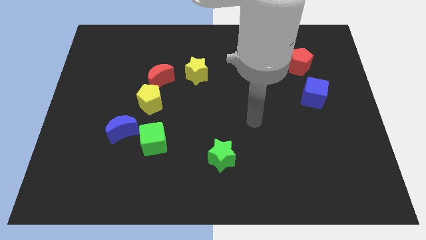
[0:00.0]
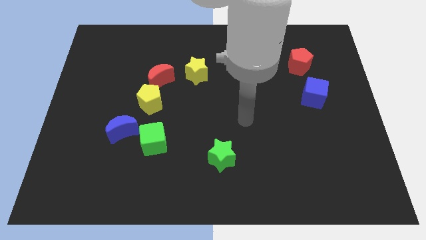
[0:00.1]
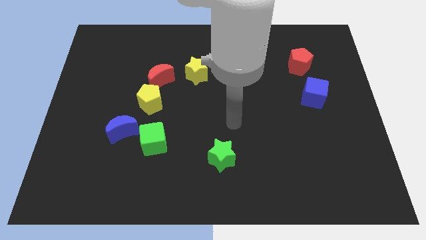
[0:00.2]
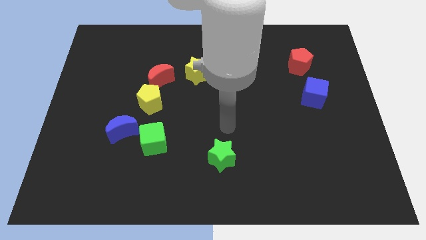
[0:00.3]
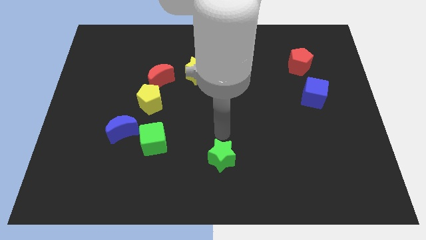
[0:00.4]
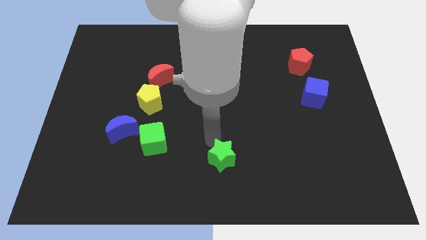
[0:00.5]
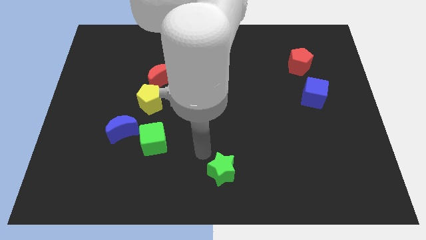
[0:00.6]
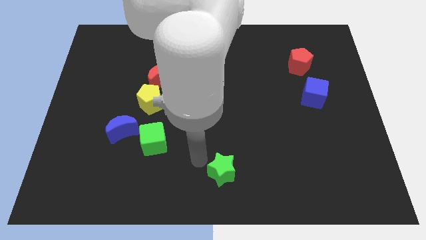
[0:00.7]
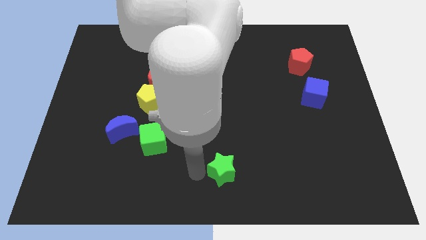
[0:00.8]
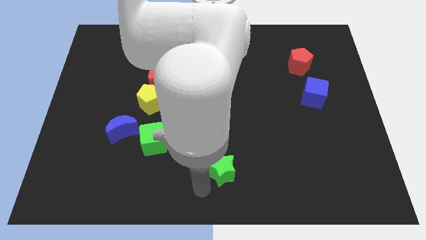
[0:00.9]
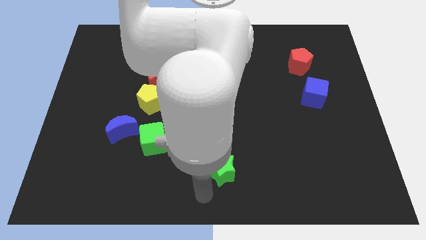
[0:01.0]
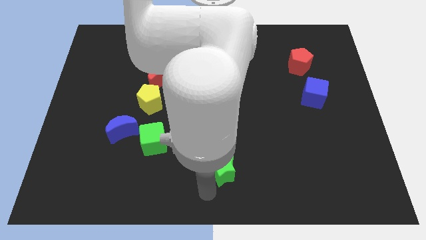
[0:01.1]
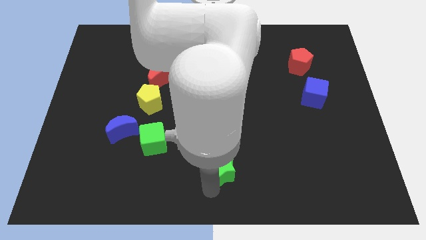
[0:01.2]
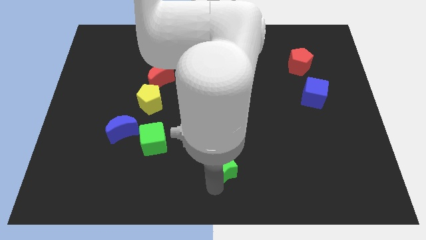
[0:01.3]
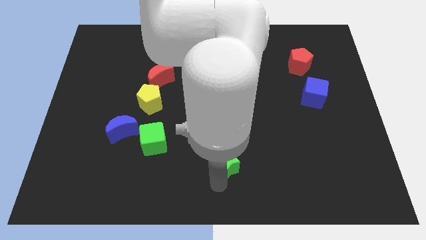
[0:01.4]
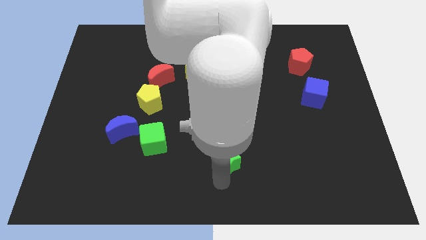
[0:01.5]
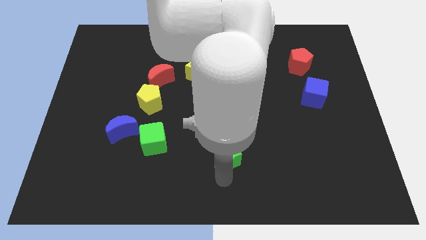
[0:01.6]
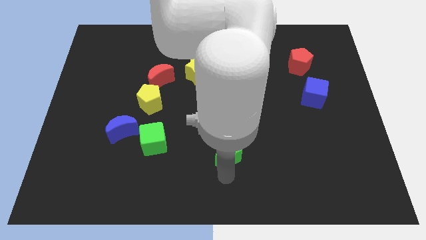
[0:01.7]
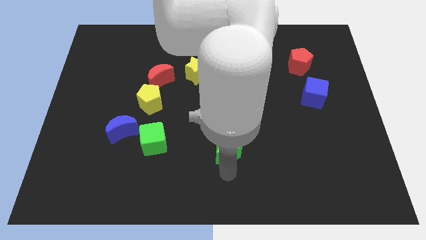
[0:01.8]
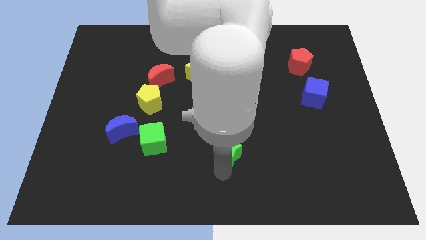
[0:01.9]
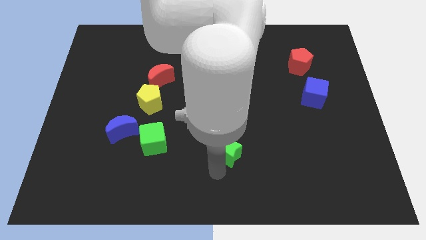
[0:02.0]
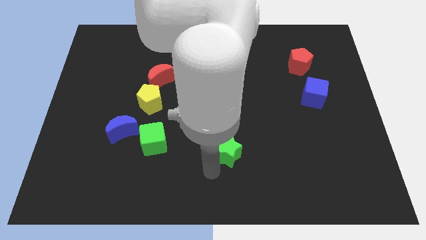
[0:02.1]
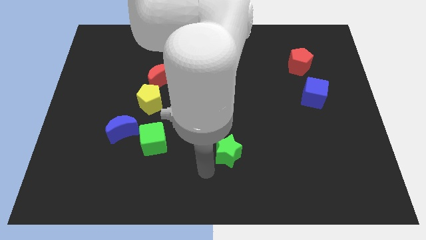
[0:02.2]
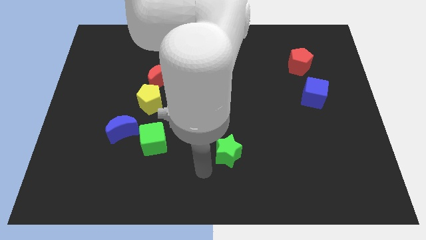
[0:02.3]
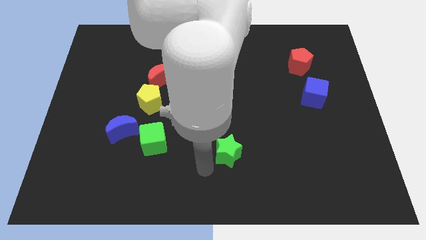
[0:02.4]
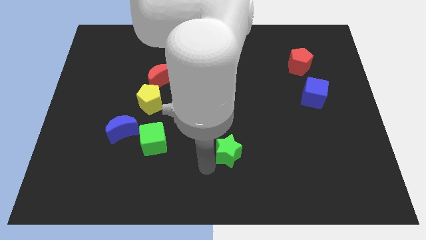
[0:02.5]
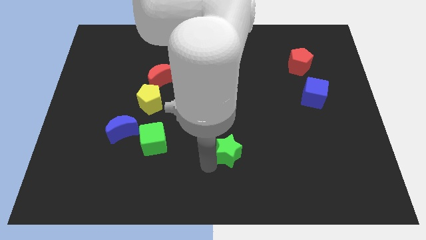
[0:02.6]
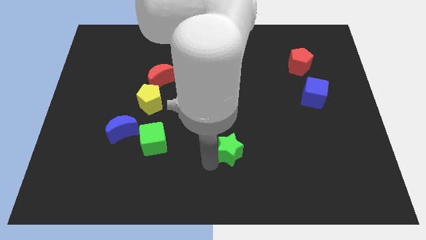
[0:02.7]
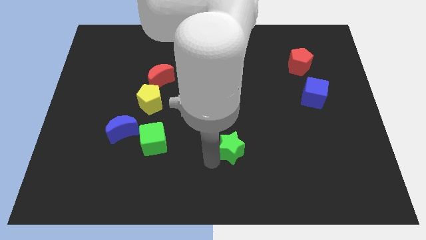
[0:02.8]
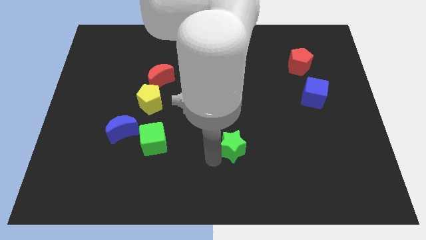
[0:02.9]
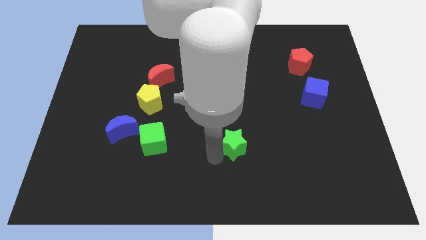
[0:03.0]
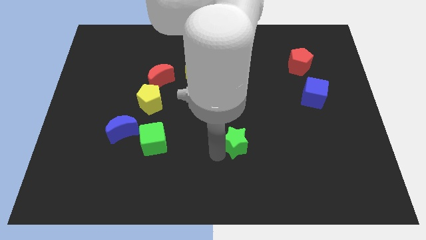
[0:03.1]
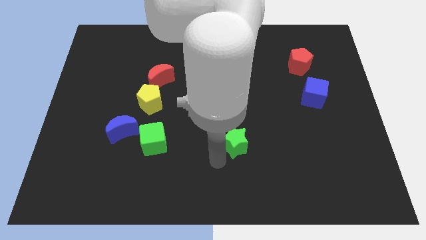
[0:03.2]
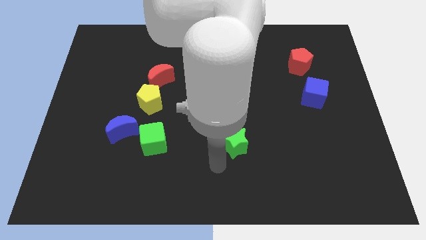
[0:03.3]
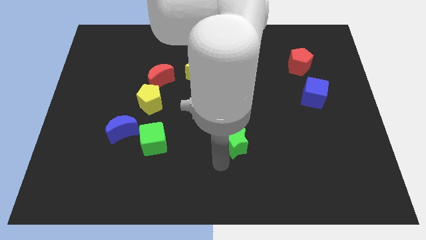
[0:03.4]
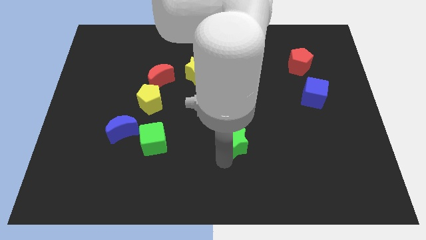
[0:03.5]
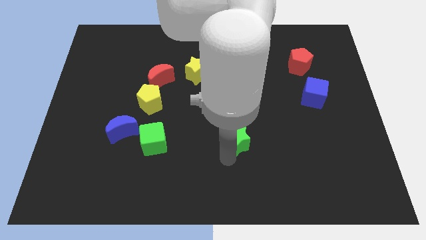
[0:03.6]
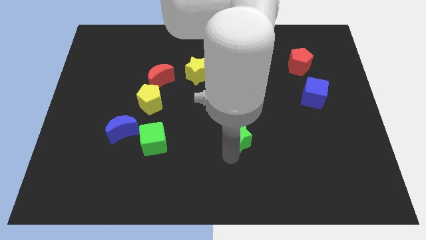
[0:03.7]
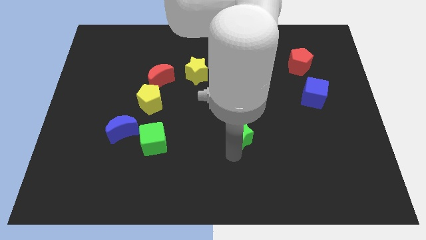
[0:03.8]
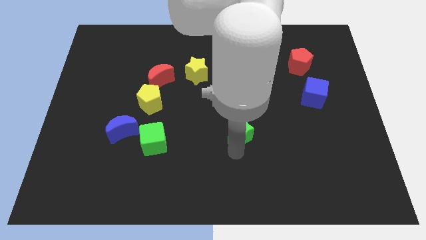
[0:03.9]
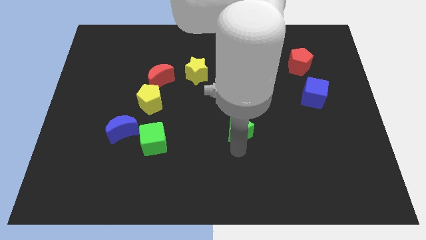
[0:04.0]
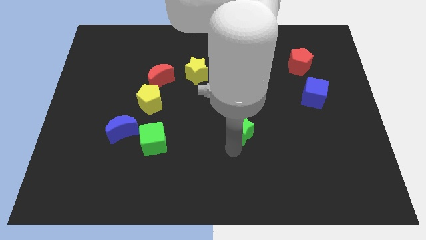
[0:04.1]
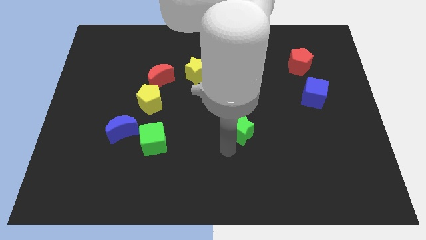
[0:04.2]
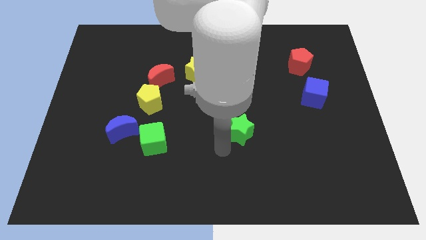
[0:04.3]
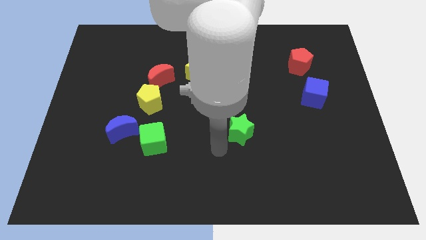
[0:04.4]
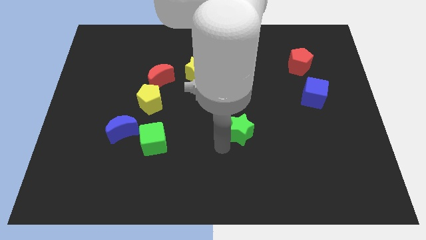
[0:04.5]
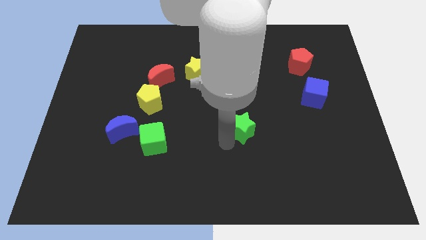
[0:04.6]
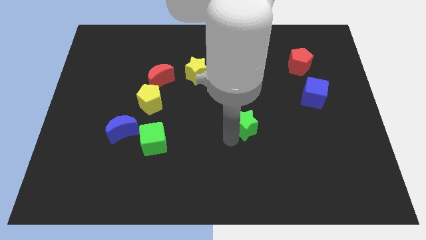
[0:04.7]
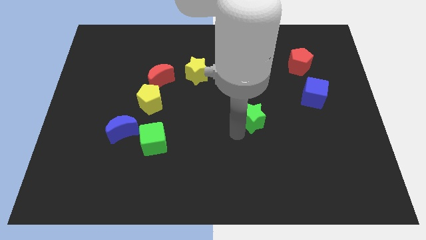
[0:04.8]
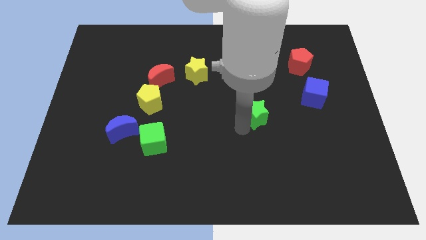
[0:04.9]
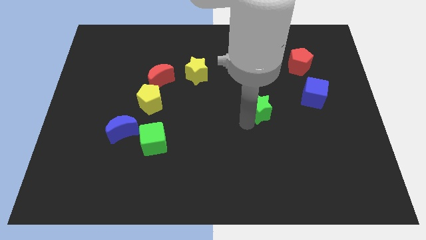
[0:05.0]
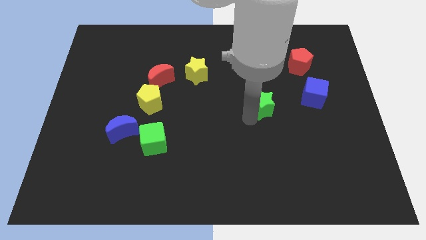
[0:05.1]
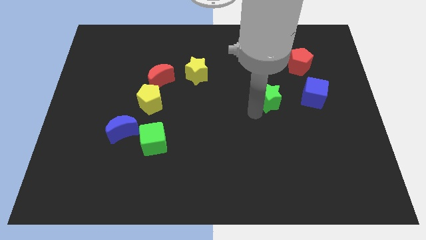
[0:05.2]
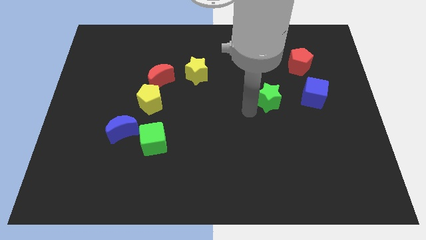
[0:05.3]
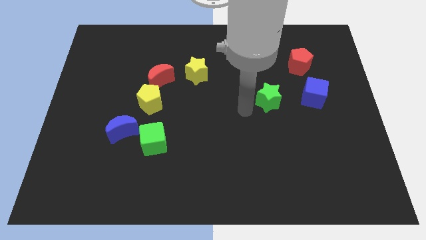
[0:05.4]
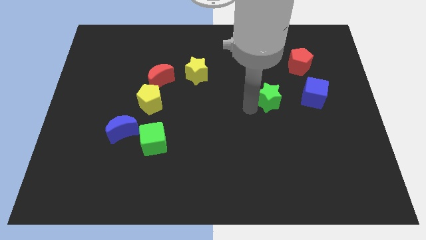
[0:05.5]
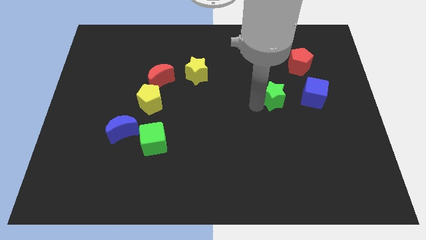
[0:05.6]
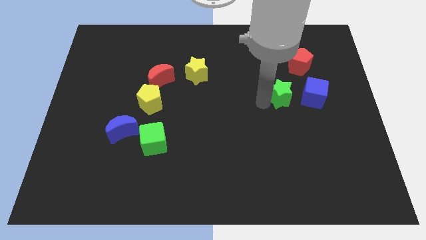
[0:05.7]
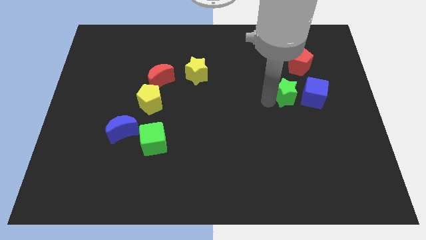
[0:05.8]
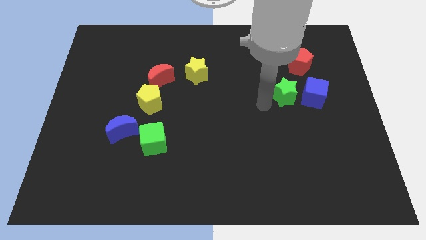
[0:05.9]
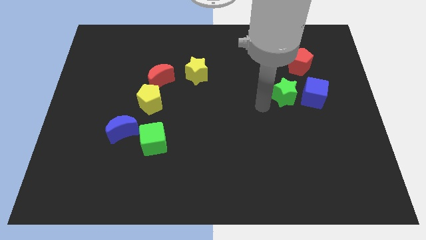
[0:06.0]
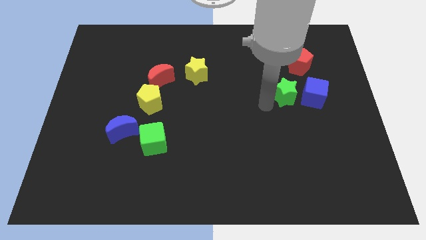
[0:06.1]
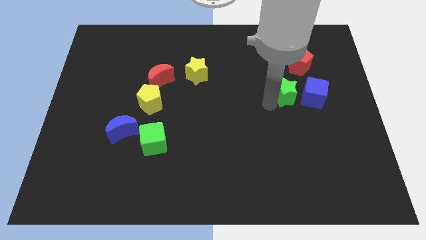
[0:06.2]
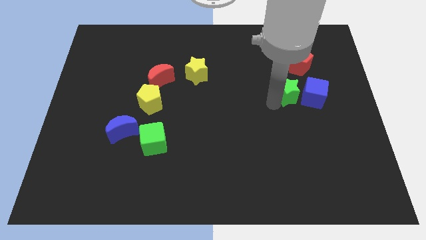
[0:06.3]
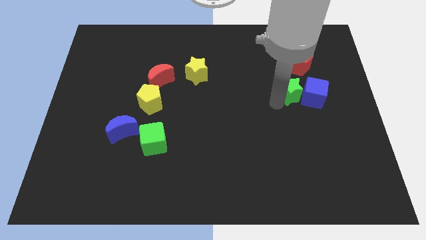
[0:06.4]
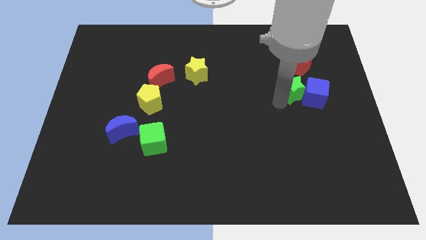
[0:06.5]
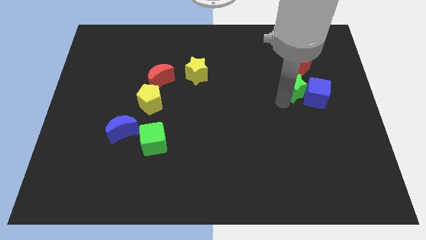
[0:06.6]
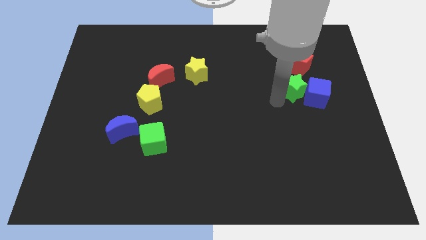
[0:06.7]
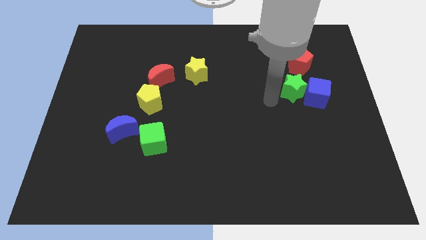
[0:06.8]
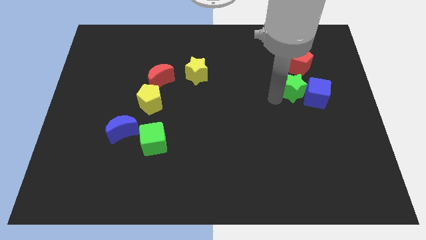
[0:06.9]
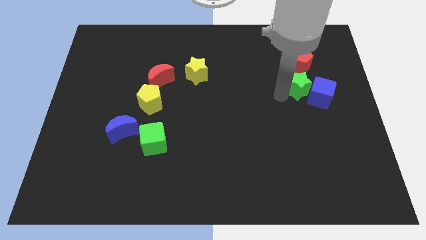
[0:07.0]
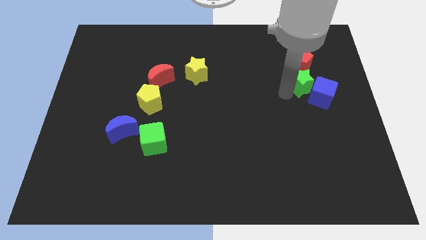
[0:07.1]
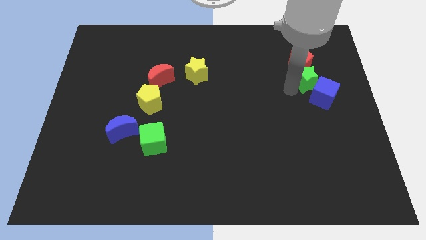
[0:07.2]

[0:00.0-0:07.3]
push the green star to the bottom right side of the red pentagon

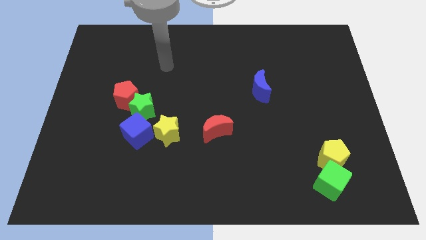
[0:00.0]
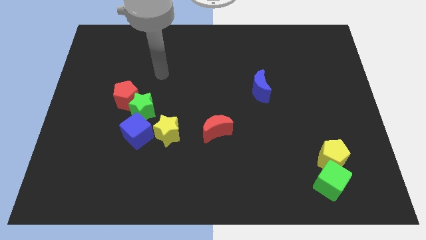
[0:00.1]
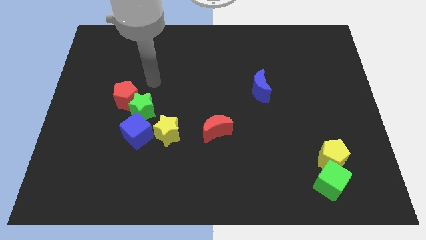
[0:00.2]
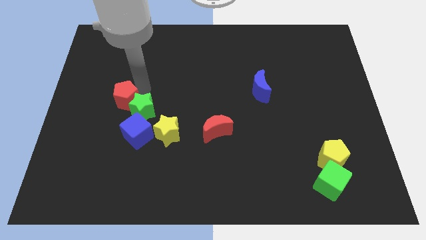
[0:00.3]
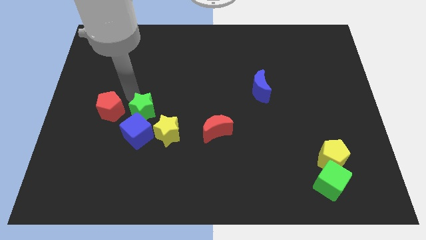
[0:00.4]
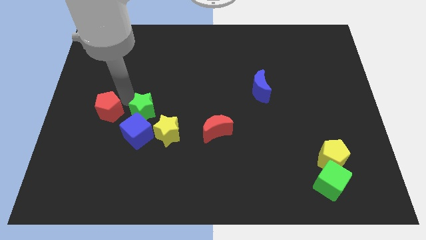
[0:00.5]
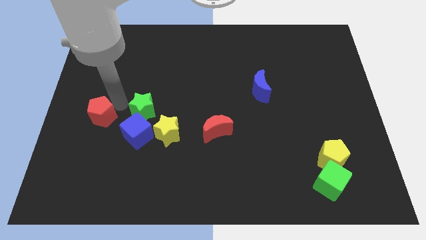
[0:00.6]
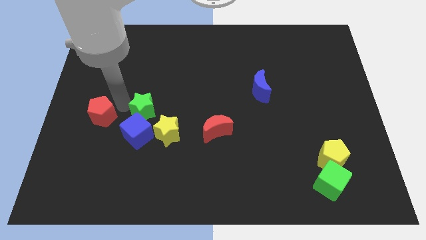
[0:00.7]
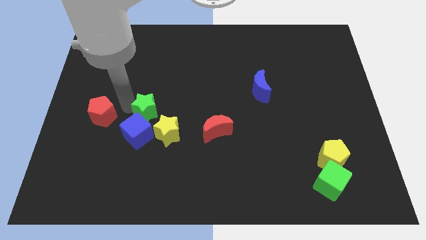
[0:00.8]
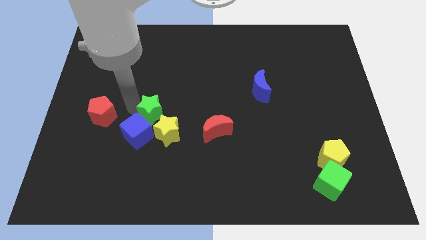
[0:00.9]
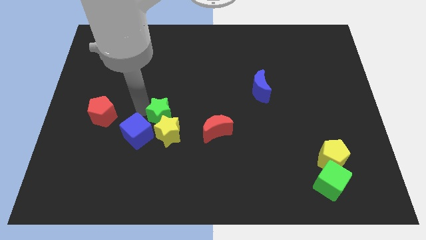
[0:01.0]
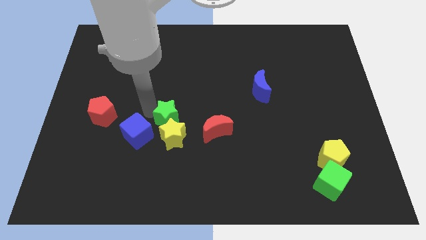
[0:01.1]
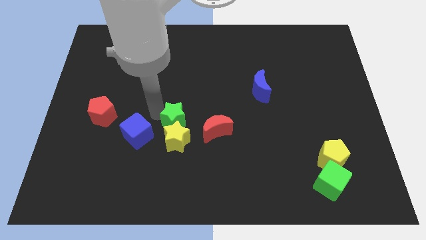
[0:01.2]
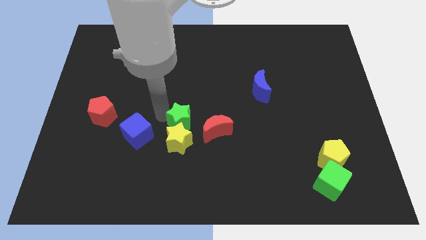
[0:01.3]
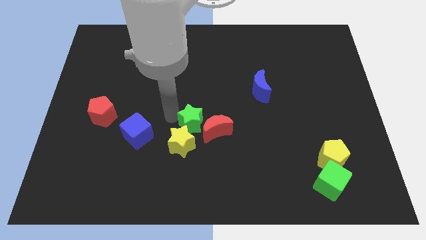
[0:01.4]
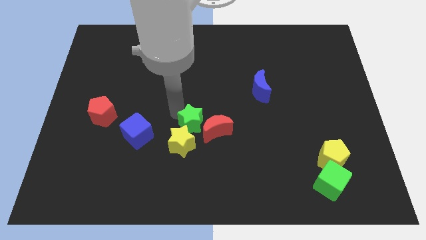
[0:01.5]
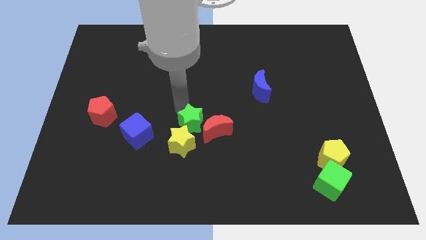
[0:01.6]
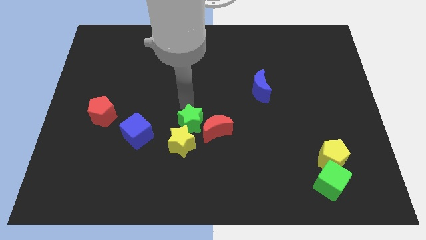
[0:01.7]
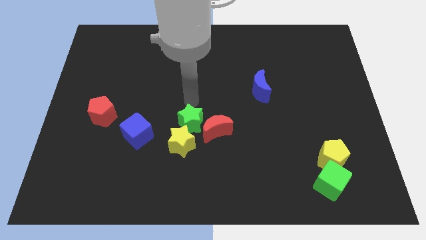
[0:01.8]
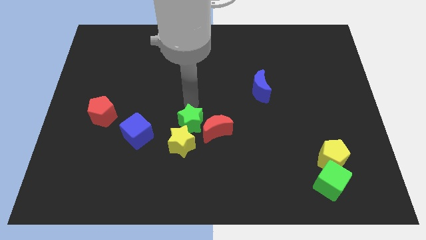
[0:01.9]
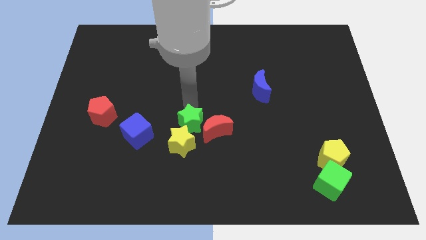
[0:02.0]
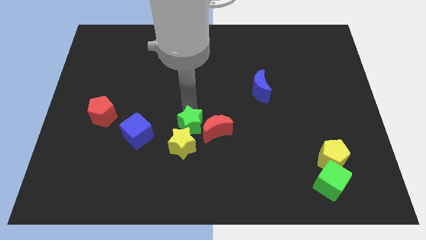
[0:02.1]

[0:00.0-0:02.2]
slide the green star to the bottom left side of the red moon
